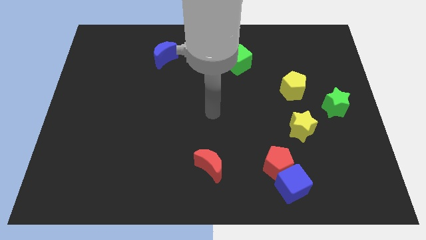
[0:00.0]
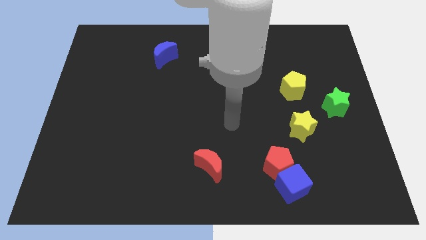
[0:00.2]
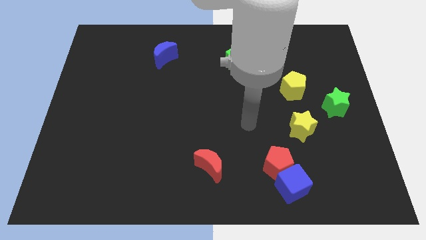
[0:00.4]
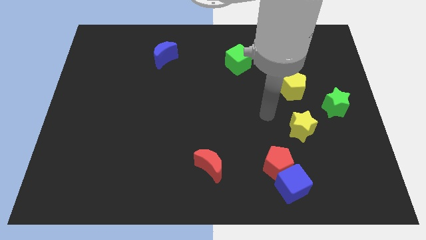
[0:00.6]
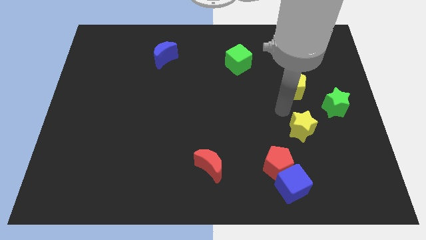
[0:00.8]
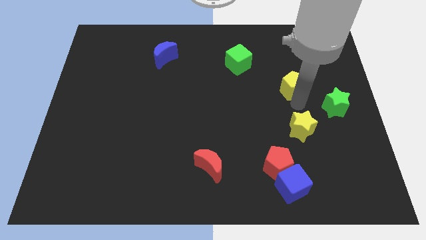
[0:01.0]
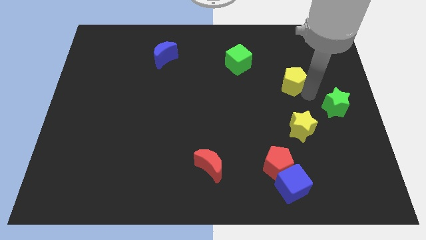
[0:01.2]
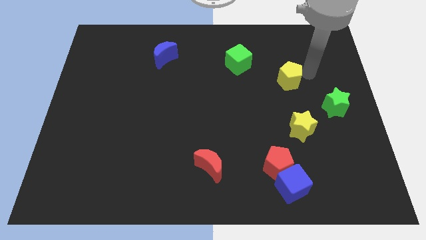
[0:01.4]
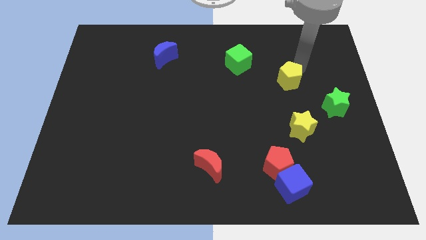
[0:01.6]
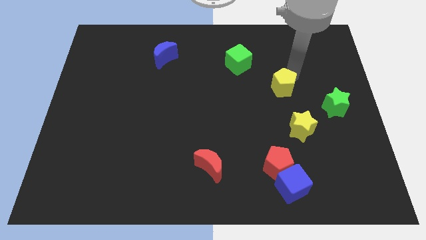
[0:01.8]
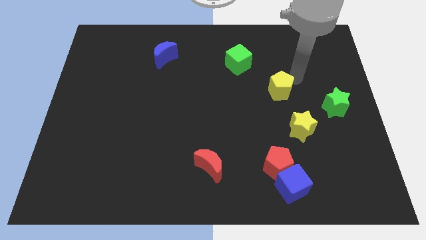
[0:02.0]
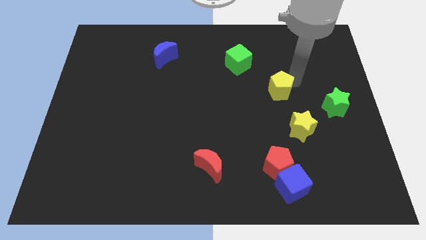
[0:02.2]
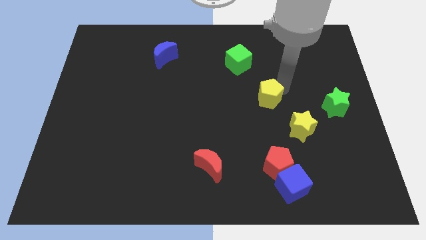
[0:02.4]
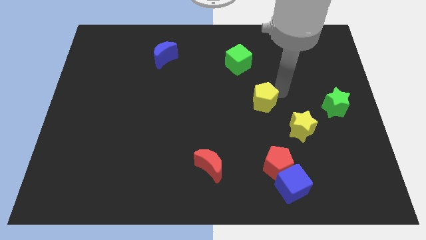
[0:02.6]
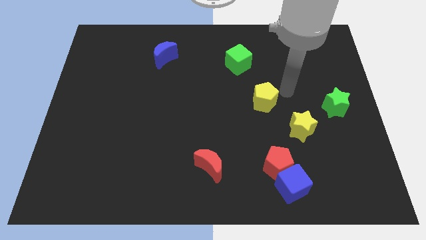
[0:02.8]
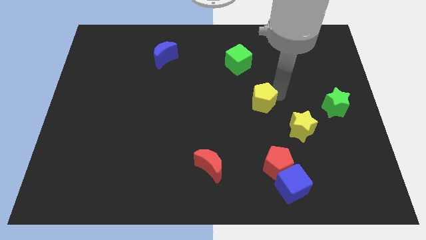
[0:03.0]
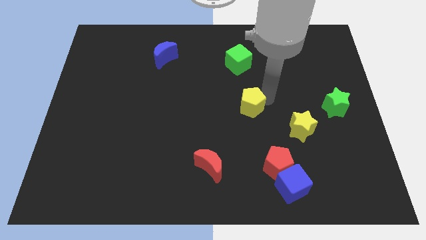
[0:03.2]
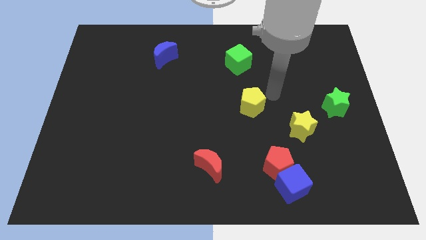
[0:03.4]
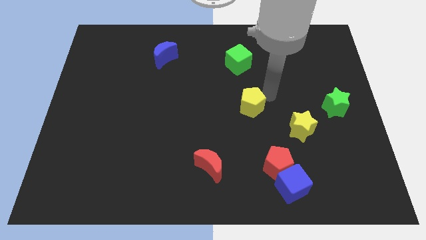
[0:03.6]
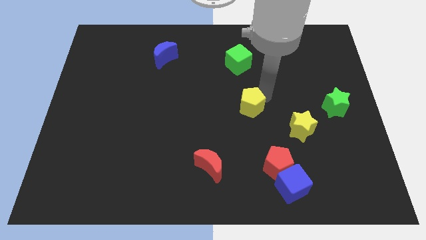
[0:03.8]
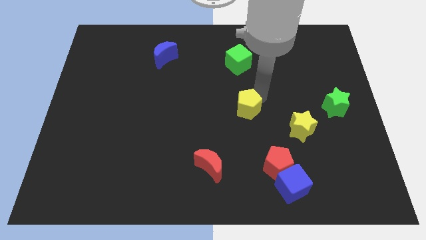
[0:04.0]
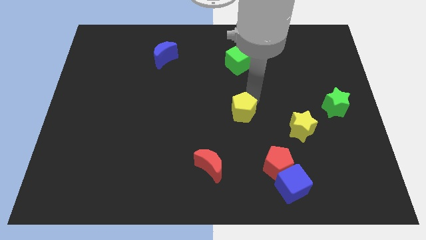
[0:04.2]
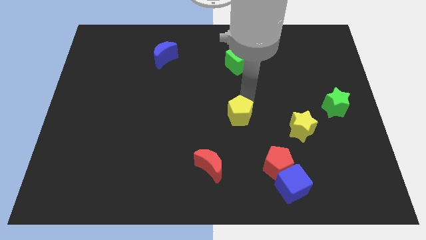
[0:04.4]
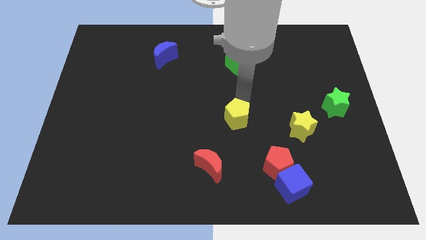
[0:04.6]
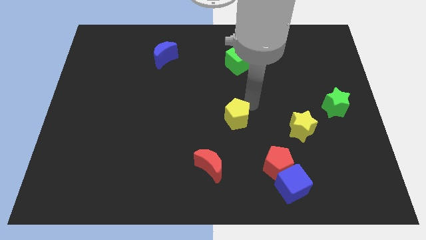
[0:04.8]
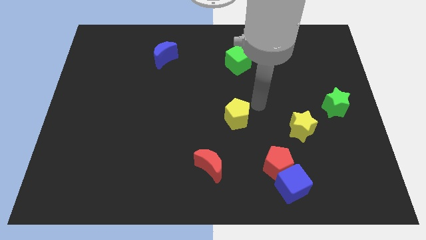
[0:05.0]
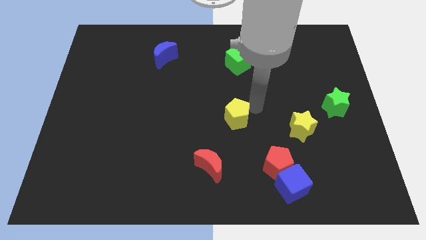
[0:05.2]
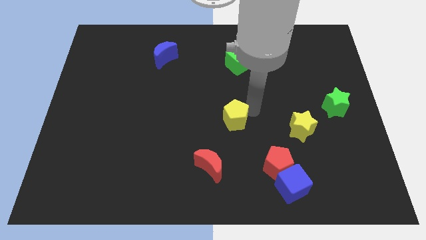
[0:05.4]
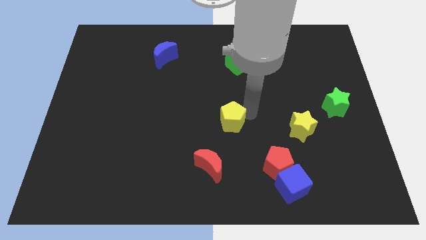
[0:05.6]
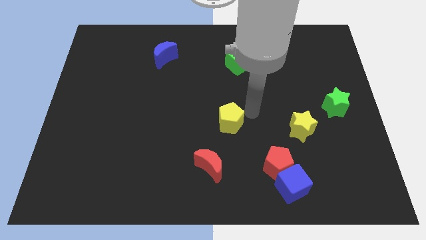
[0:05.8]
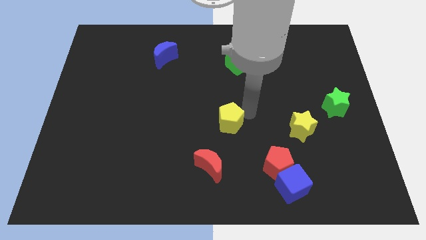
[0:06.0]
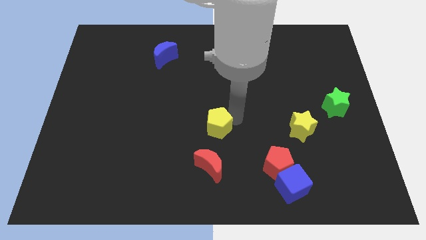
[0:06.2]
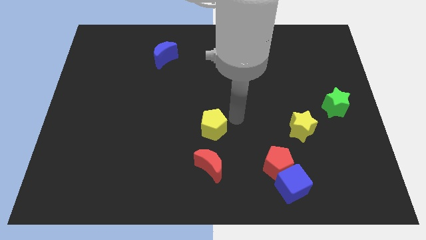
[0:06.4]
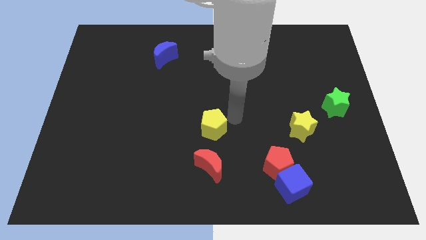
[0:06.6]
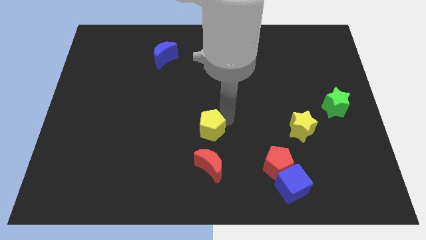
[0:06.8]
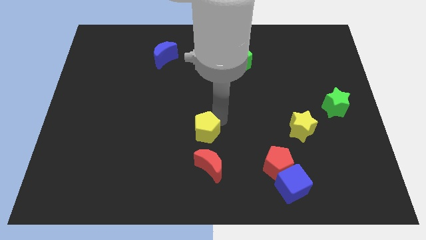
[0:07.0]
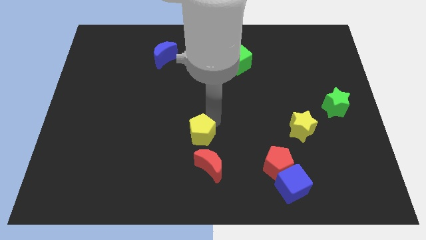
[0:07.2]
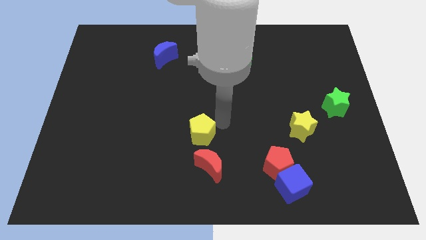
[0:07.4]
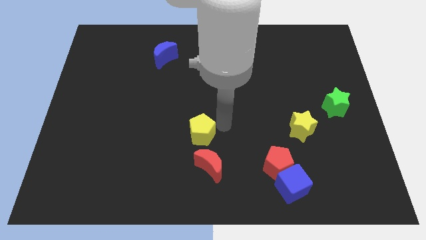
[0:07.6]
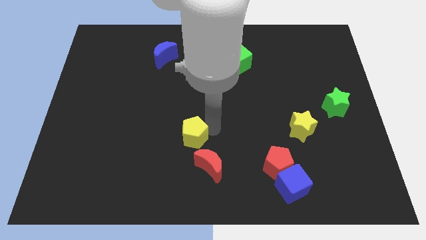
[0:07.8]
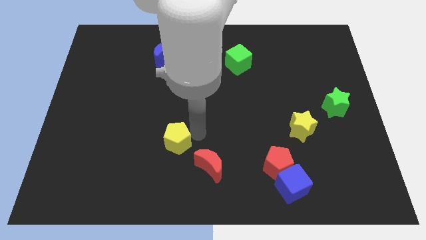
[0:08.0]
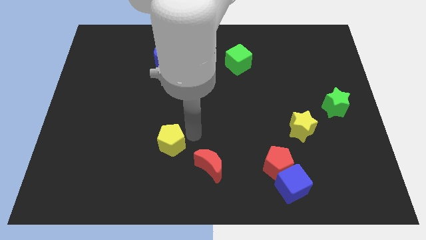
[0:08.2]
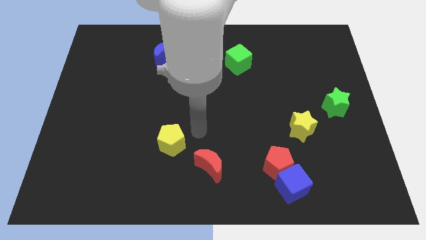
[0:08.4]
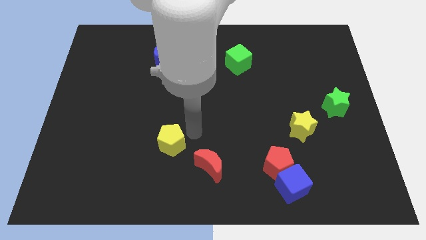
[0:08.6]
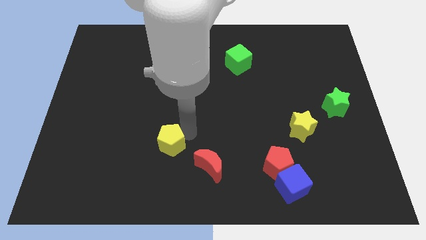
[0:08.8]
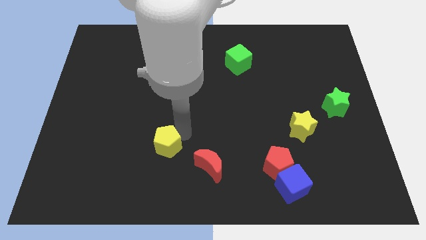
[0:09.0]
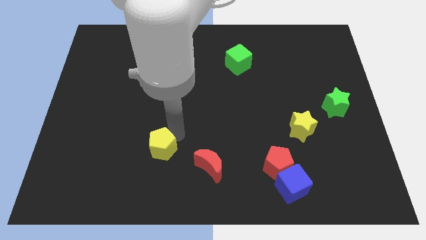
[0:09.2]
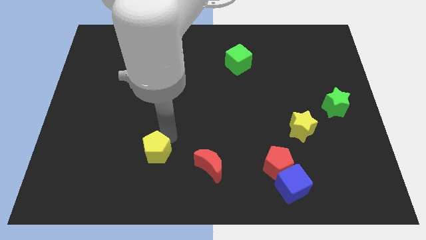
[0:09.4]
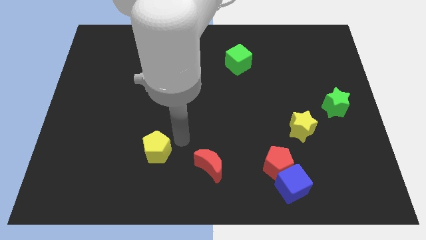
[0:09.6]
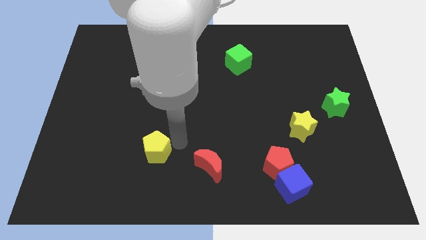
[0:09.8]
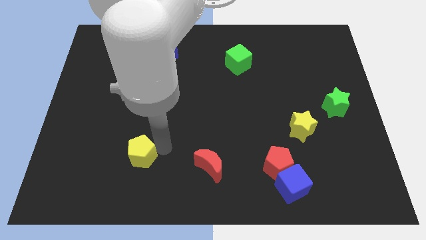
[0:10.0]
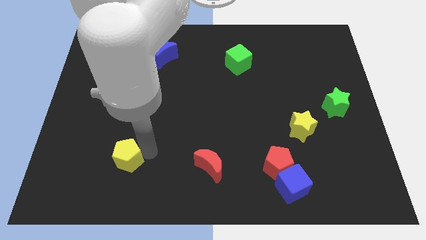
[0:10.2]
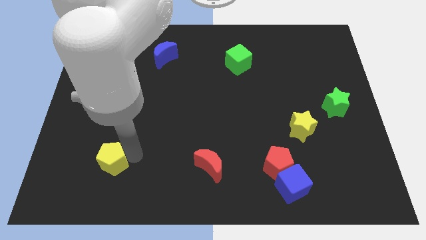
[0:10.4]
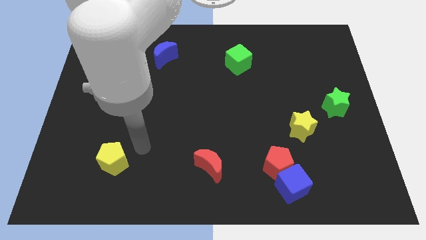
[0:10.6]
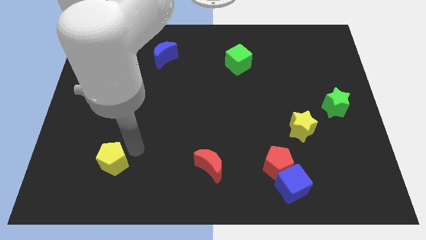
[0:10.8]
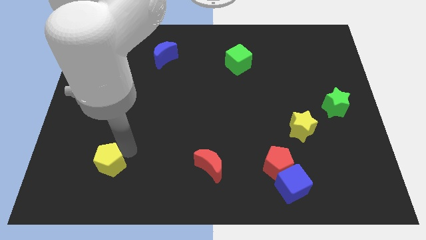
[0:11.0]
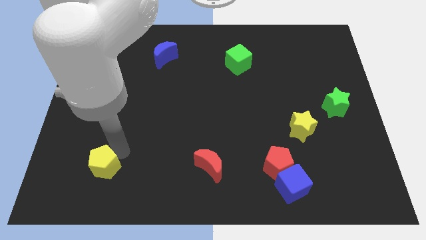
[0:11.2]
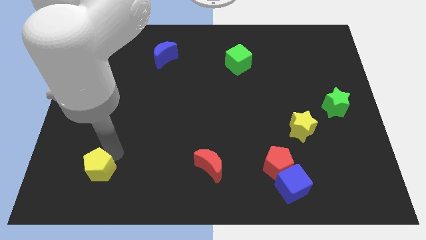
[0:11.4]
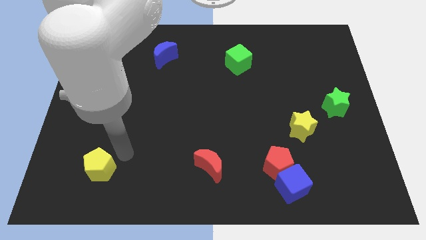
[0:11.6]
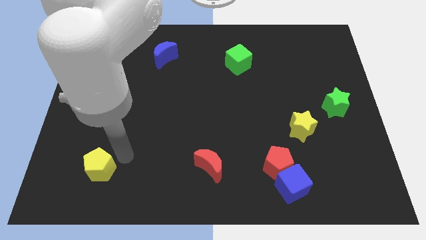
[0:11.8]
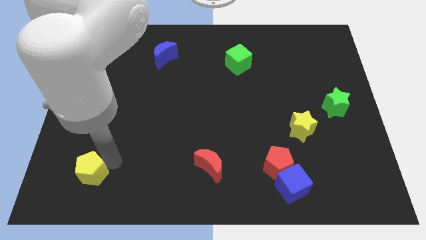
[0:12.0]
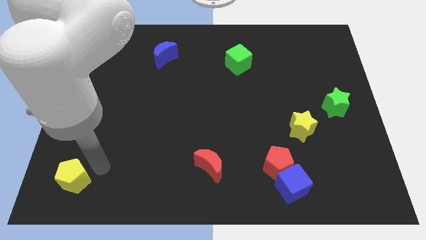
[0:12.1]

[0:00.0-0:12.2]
put the yellow pentagon to the bottom left corner

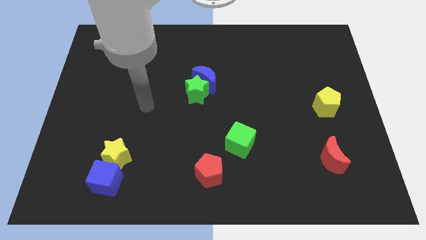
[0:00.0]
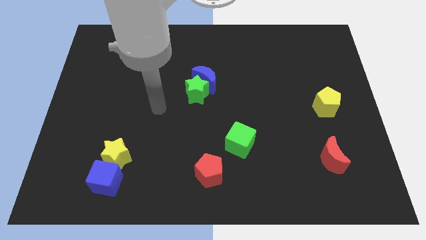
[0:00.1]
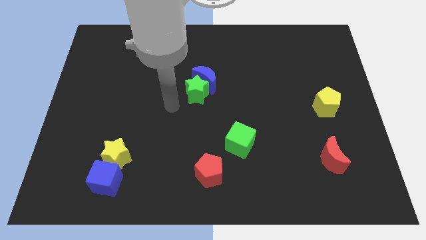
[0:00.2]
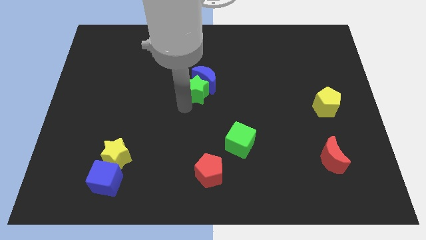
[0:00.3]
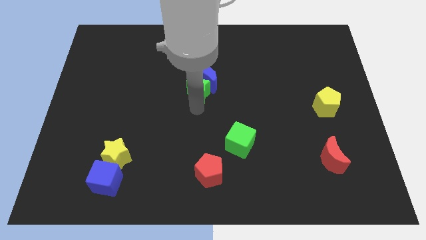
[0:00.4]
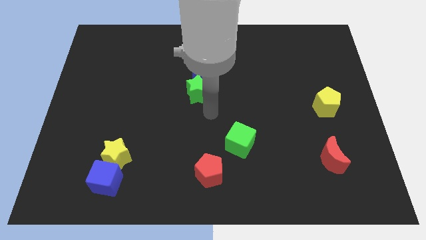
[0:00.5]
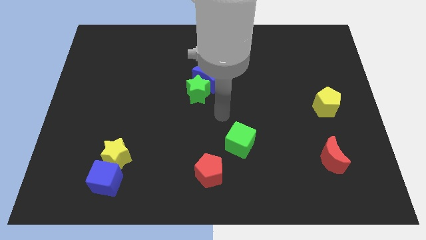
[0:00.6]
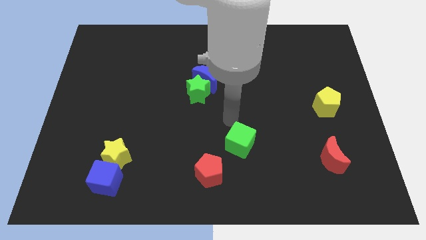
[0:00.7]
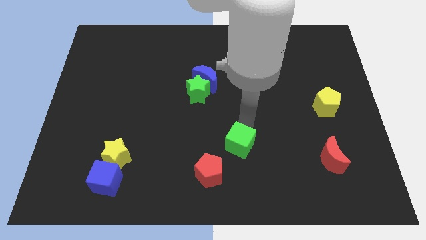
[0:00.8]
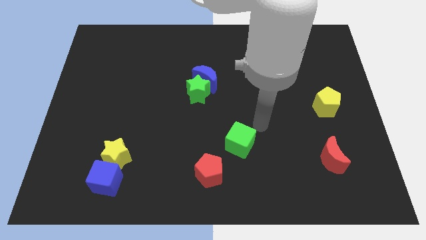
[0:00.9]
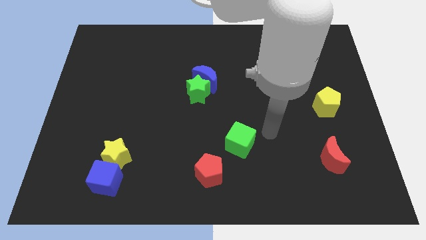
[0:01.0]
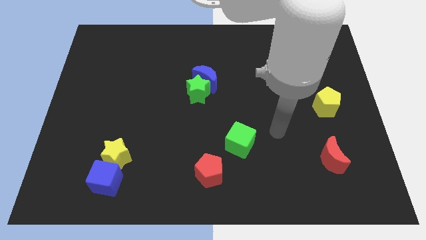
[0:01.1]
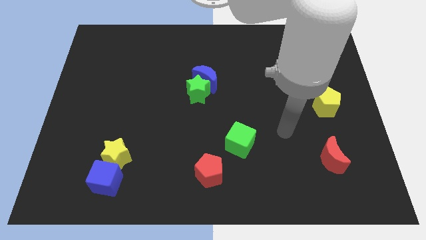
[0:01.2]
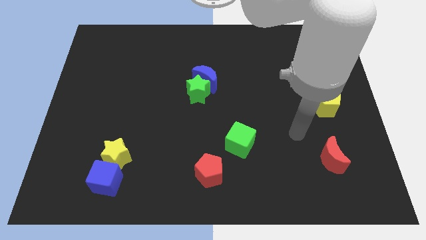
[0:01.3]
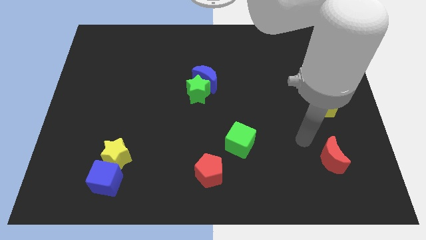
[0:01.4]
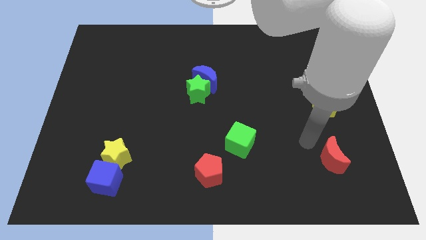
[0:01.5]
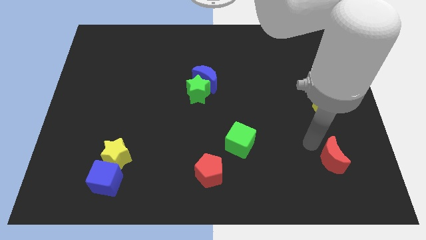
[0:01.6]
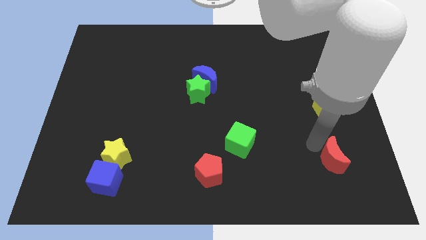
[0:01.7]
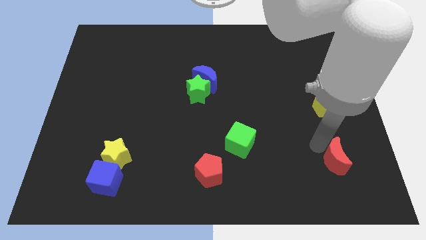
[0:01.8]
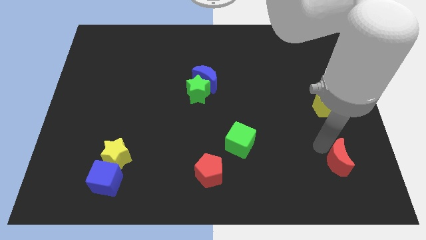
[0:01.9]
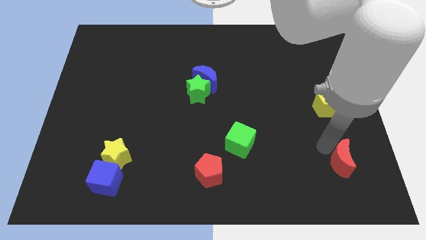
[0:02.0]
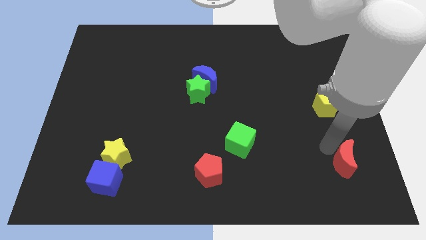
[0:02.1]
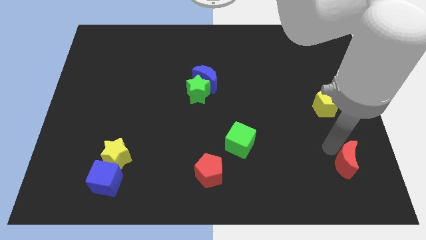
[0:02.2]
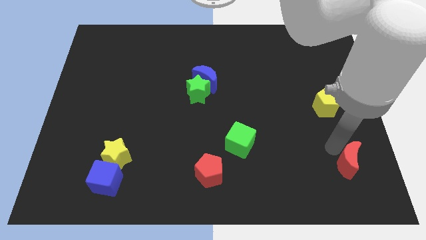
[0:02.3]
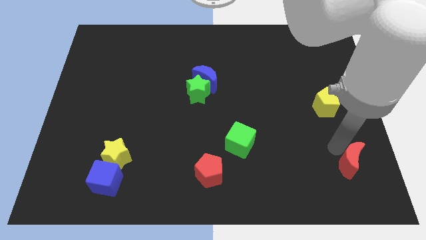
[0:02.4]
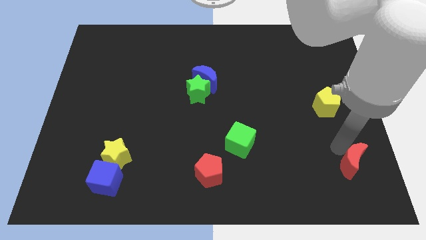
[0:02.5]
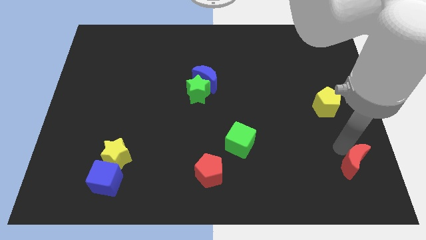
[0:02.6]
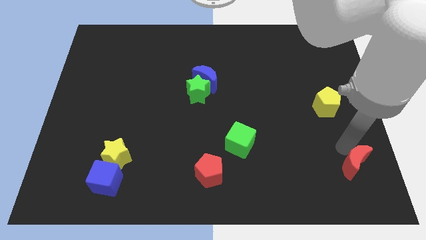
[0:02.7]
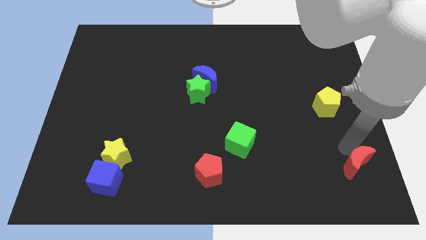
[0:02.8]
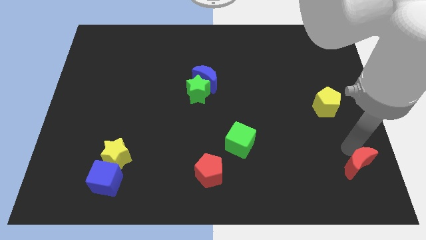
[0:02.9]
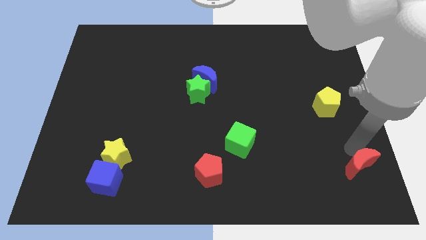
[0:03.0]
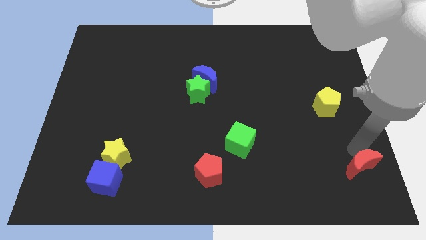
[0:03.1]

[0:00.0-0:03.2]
move the red moon to the bottom right corner
